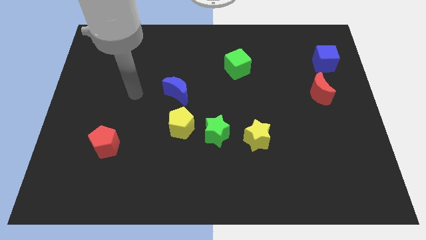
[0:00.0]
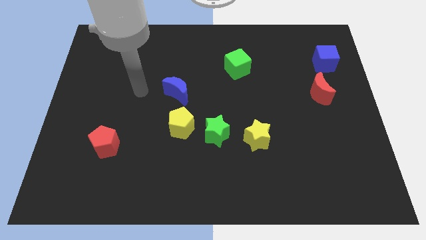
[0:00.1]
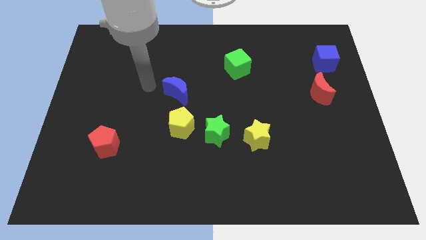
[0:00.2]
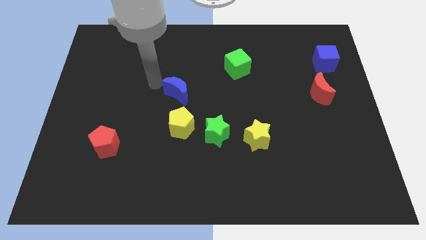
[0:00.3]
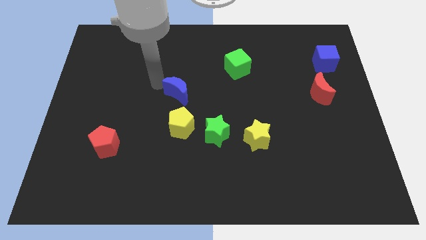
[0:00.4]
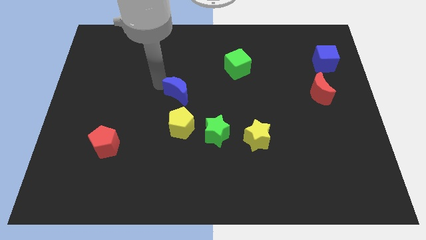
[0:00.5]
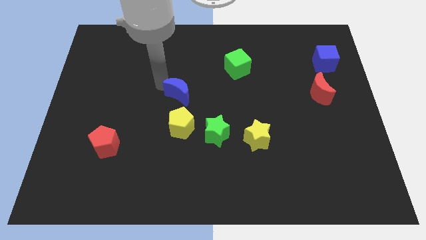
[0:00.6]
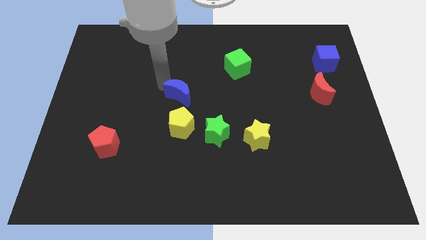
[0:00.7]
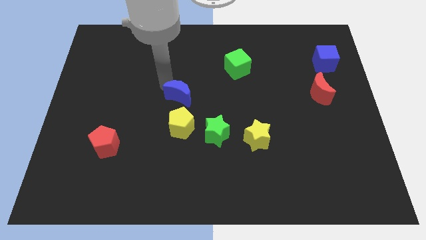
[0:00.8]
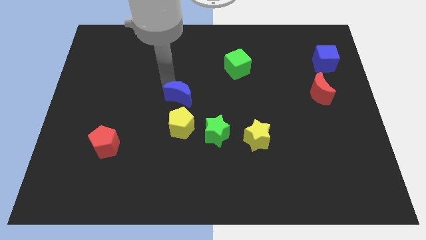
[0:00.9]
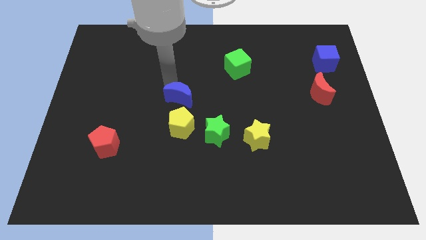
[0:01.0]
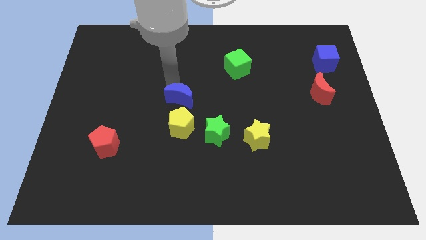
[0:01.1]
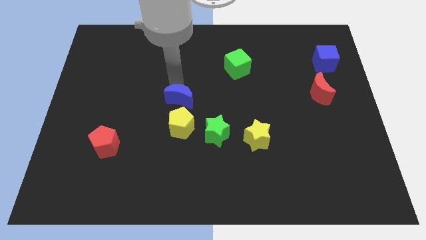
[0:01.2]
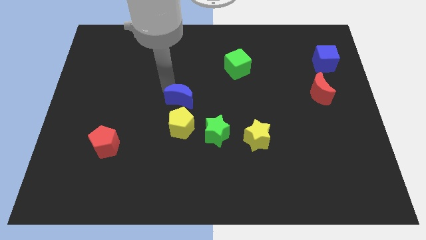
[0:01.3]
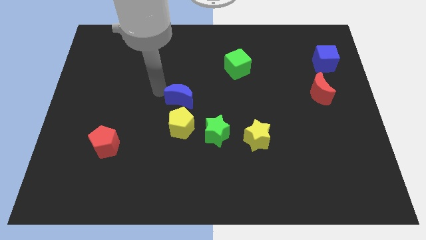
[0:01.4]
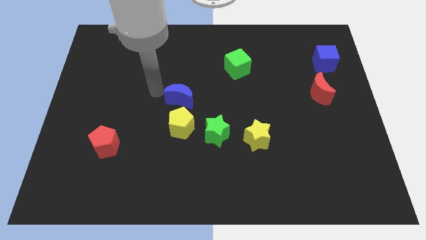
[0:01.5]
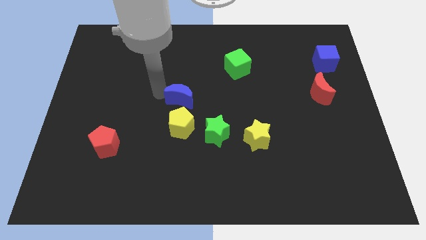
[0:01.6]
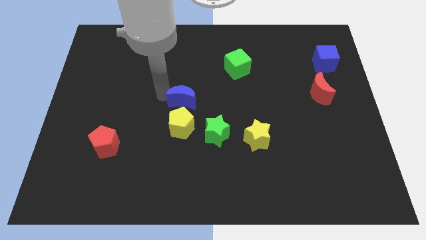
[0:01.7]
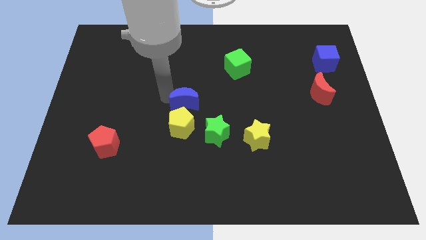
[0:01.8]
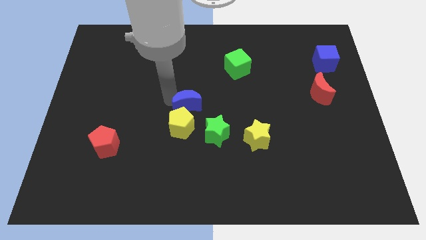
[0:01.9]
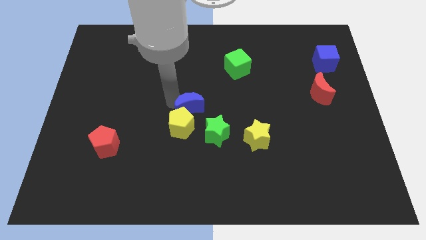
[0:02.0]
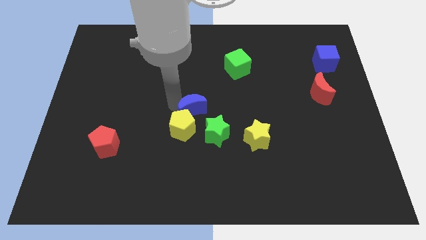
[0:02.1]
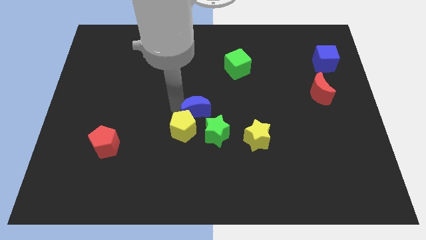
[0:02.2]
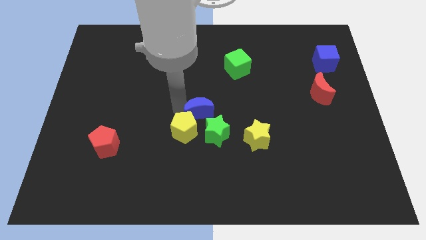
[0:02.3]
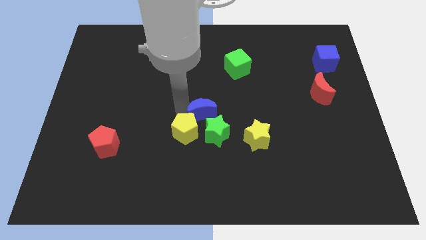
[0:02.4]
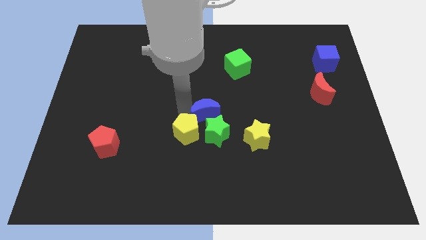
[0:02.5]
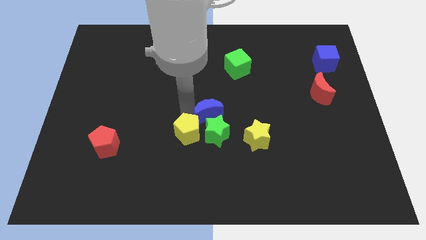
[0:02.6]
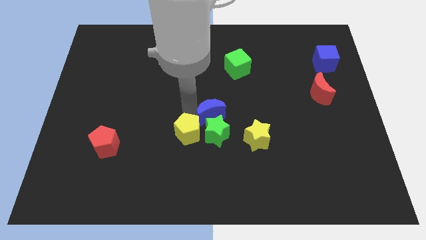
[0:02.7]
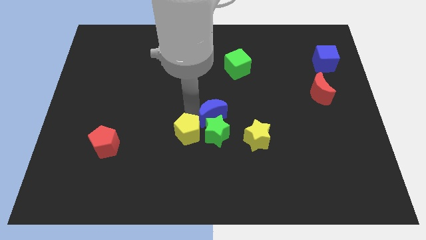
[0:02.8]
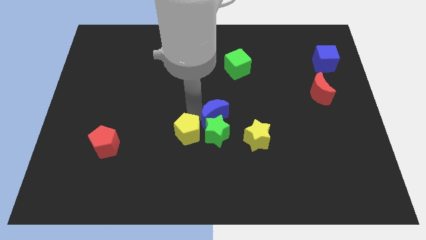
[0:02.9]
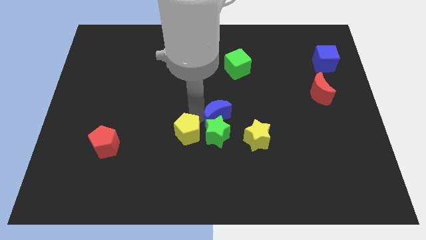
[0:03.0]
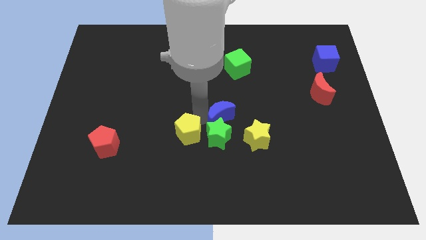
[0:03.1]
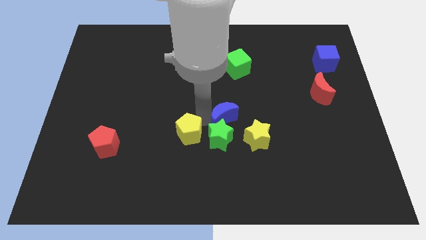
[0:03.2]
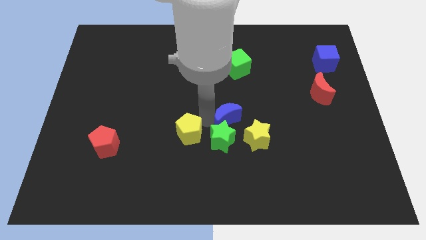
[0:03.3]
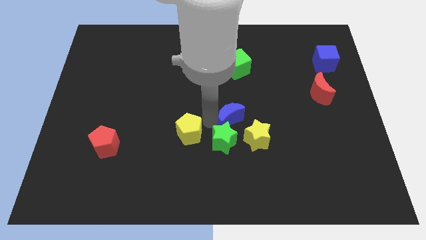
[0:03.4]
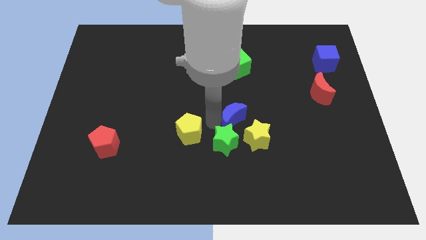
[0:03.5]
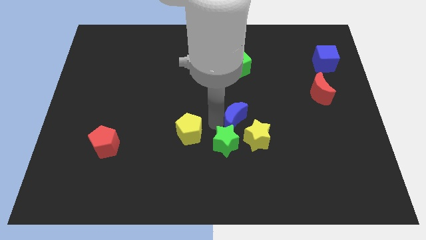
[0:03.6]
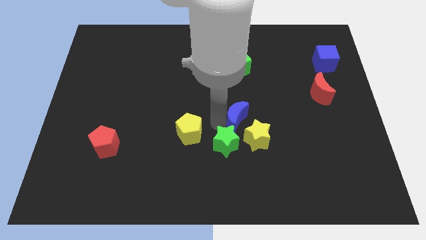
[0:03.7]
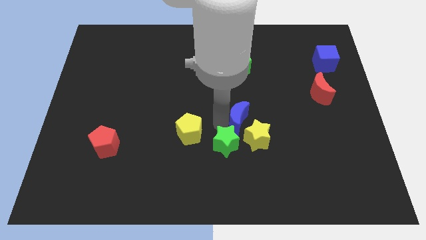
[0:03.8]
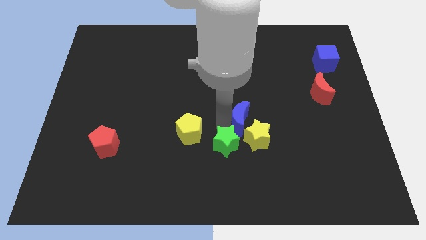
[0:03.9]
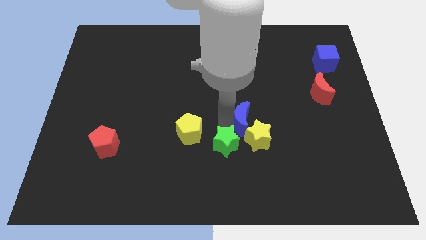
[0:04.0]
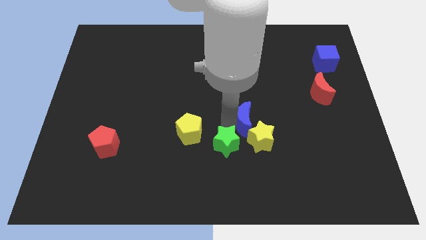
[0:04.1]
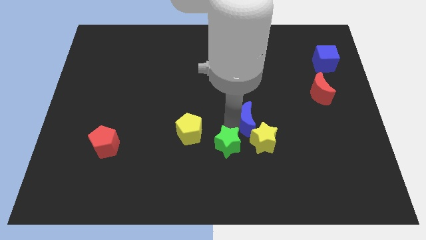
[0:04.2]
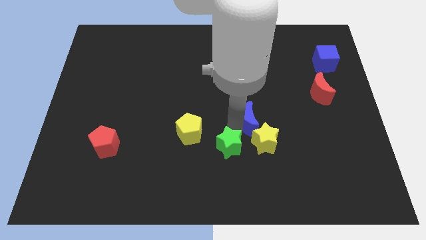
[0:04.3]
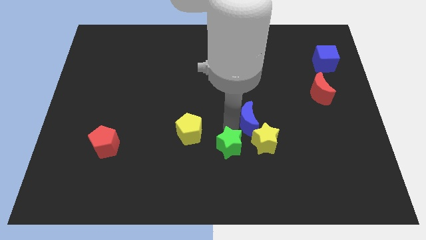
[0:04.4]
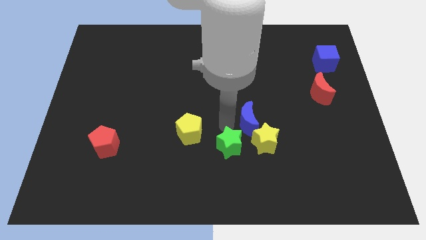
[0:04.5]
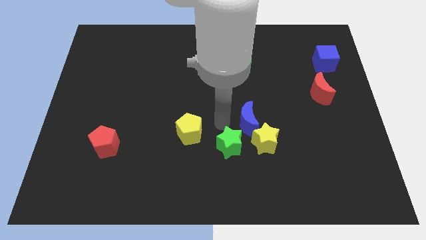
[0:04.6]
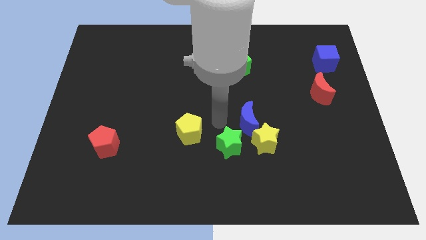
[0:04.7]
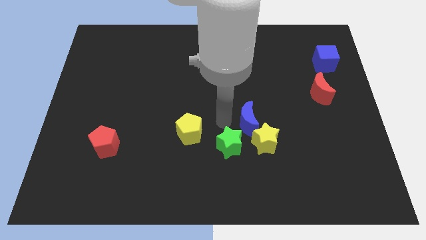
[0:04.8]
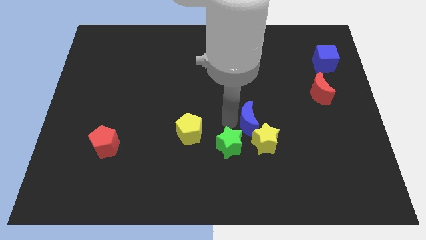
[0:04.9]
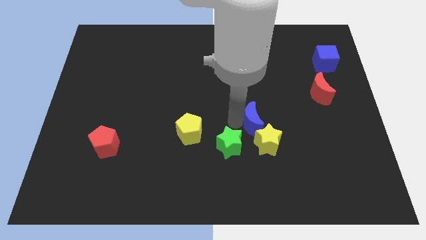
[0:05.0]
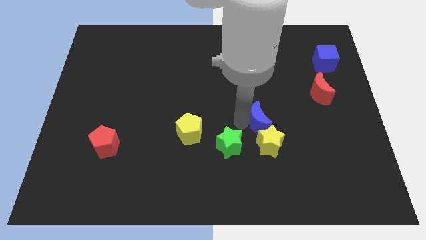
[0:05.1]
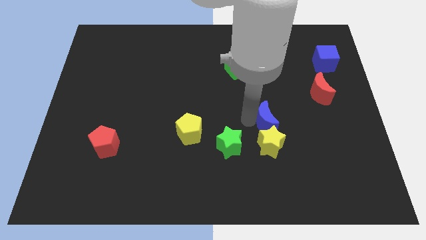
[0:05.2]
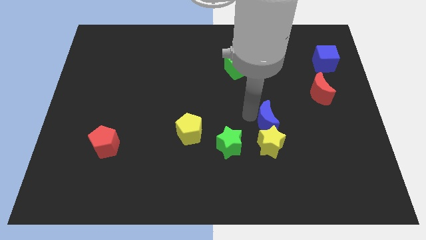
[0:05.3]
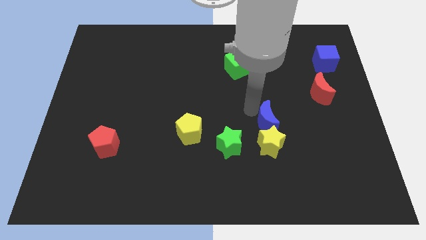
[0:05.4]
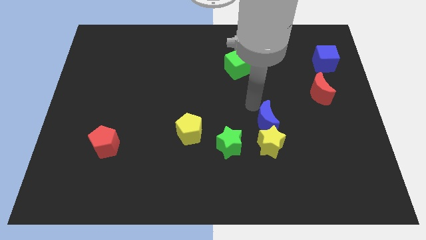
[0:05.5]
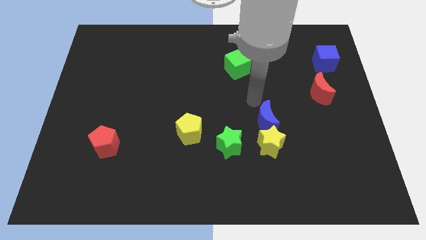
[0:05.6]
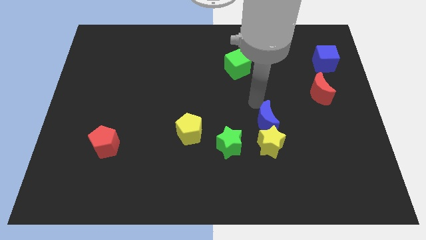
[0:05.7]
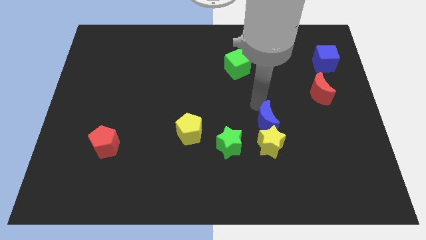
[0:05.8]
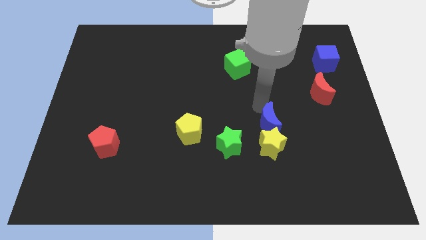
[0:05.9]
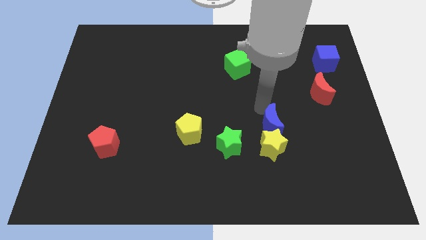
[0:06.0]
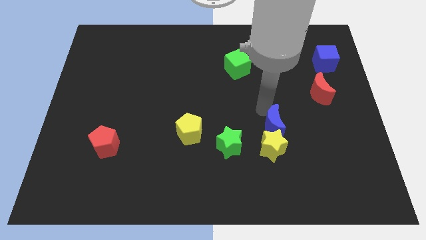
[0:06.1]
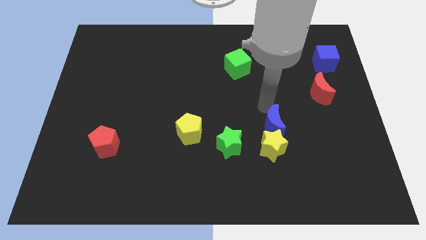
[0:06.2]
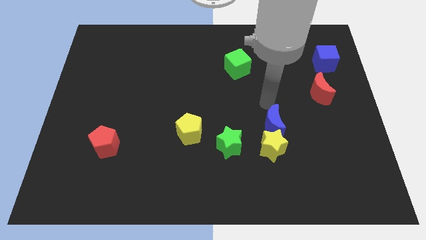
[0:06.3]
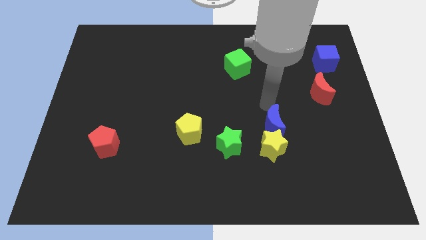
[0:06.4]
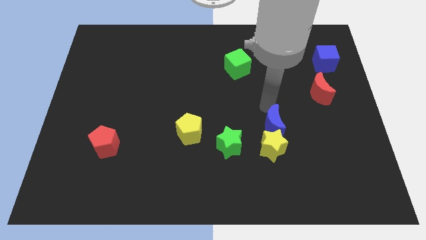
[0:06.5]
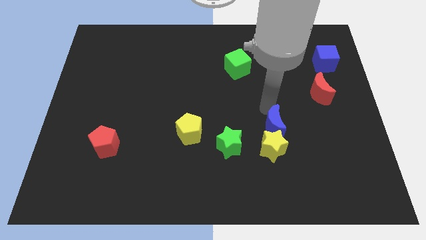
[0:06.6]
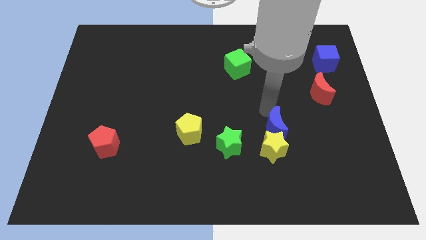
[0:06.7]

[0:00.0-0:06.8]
move the blue moon downwards and then to the right

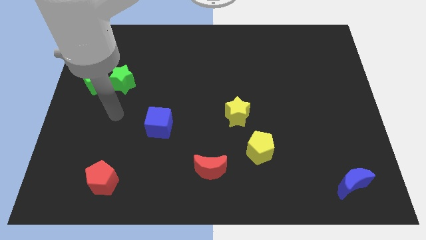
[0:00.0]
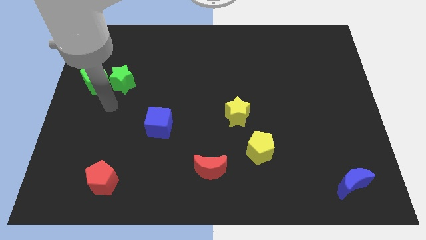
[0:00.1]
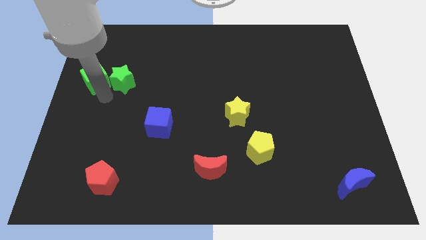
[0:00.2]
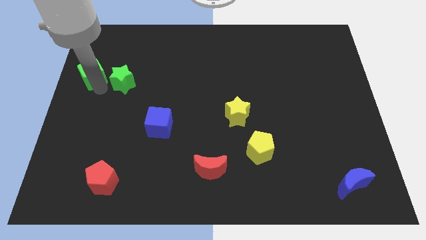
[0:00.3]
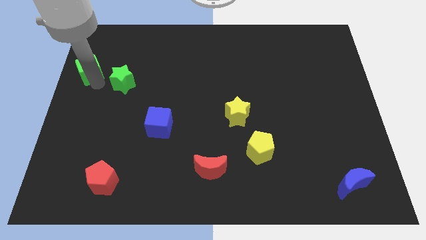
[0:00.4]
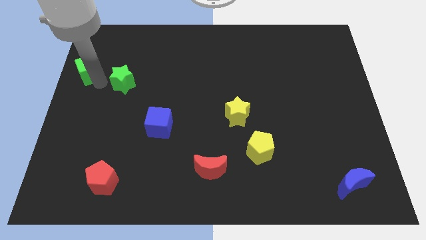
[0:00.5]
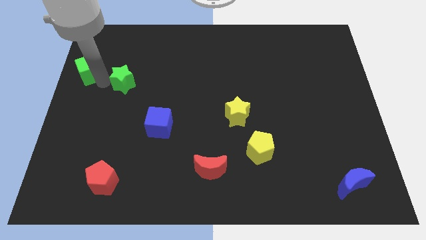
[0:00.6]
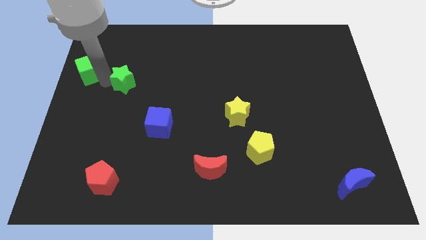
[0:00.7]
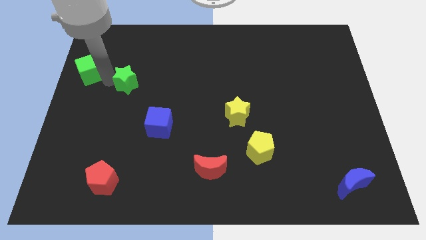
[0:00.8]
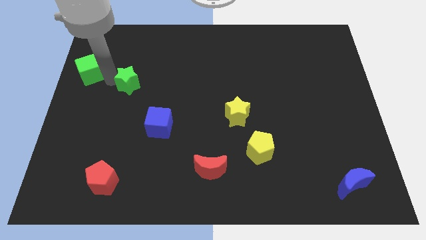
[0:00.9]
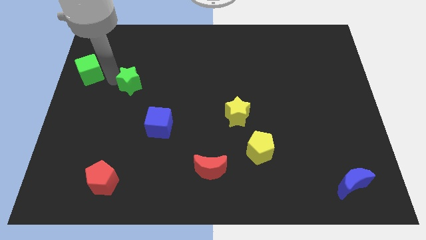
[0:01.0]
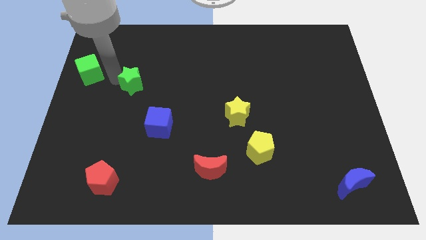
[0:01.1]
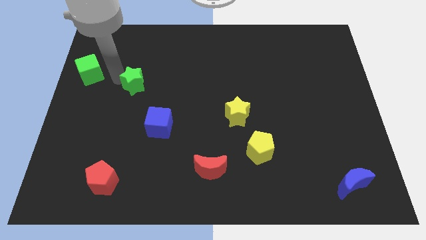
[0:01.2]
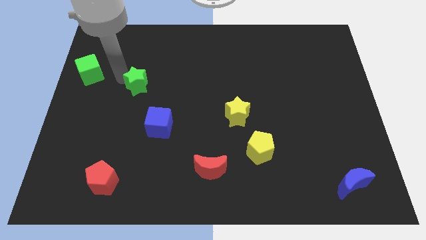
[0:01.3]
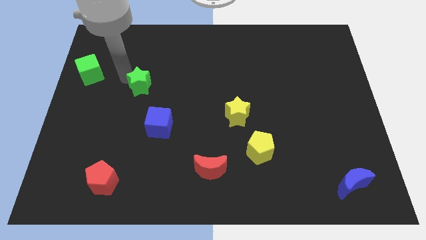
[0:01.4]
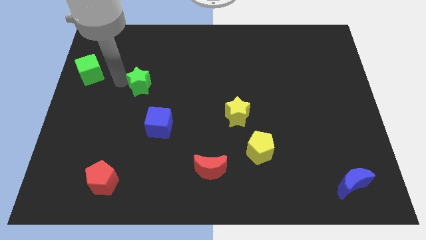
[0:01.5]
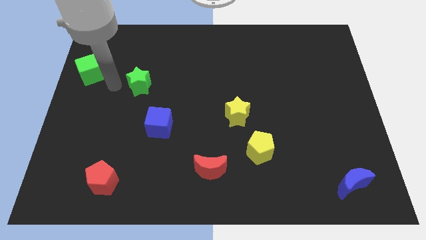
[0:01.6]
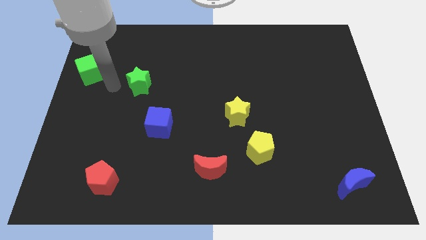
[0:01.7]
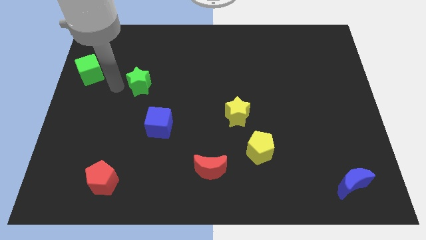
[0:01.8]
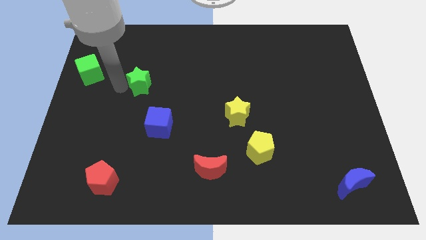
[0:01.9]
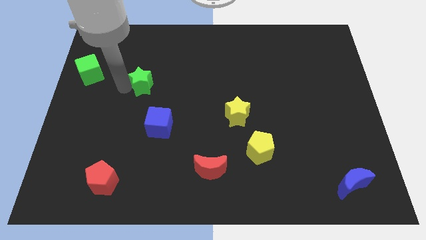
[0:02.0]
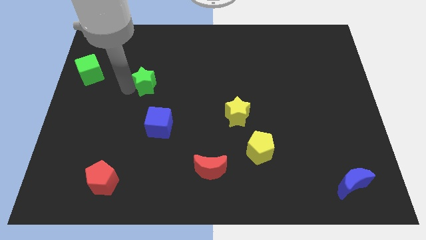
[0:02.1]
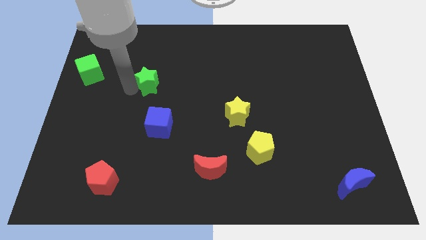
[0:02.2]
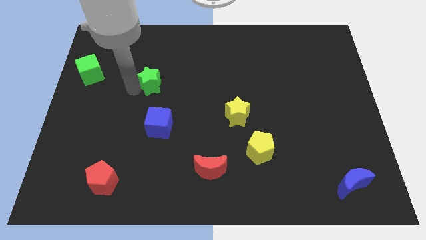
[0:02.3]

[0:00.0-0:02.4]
slightly move the green star to the right
